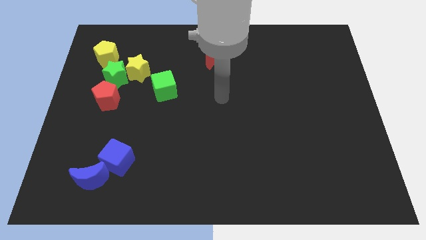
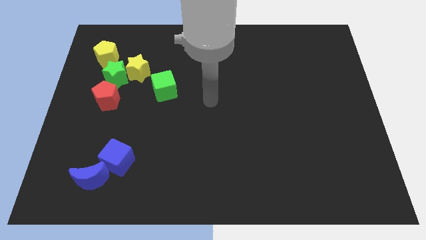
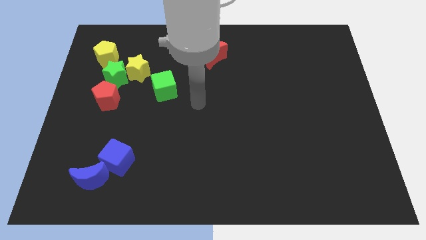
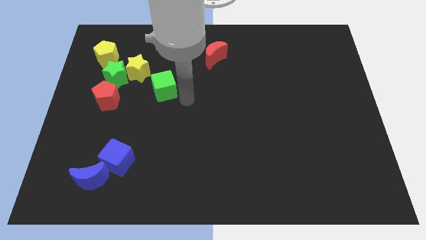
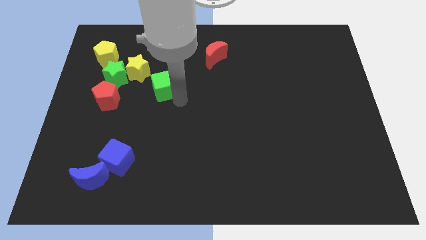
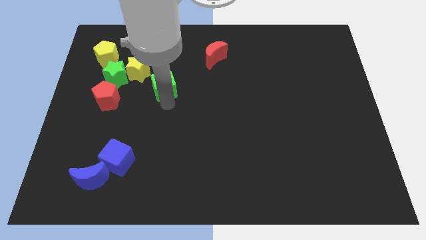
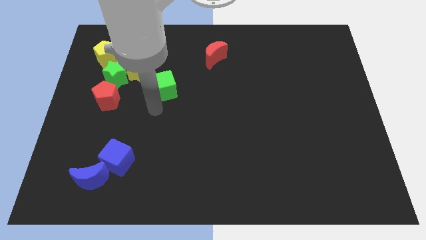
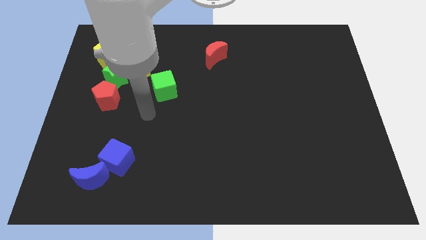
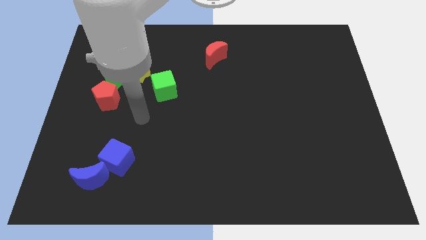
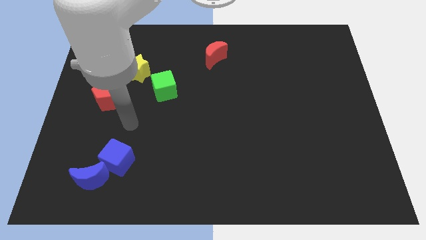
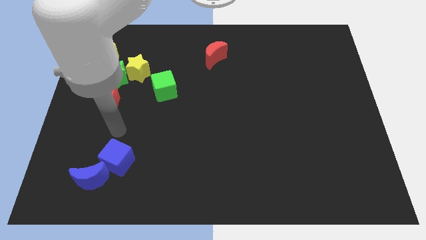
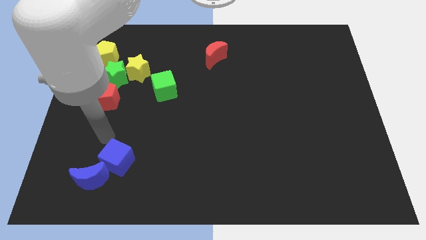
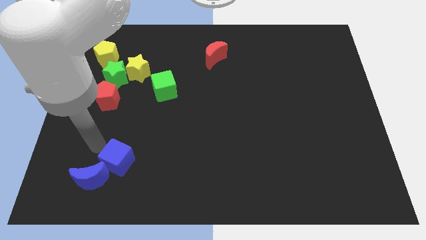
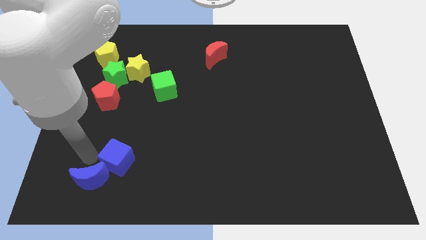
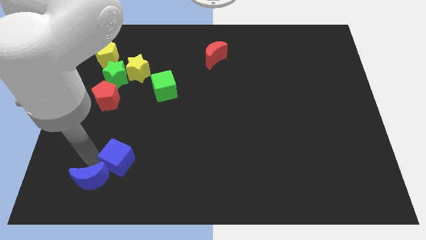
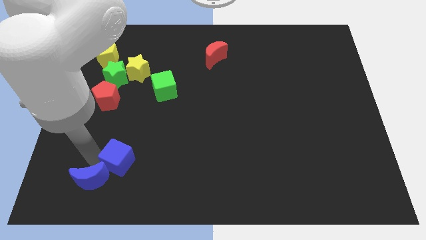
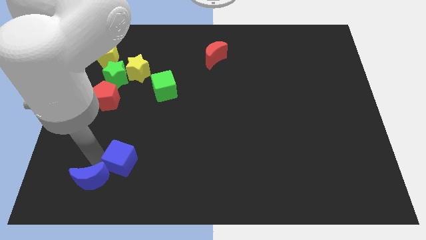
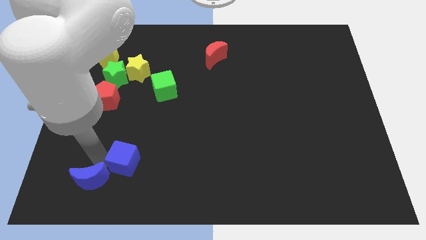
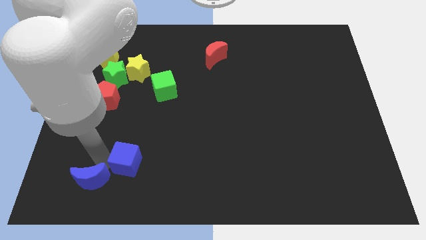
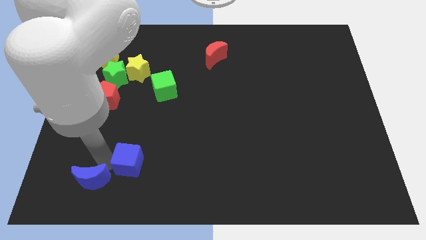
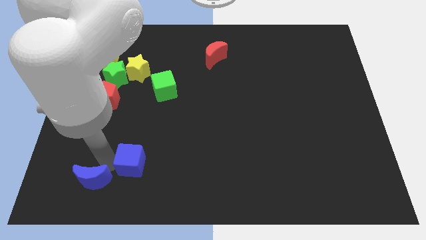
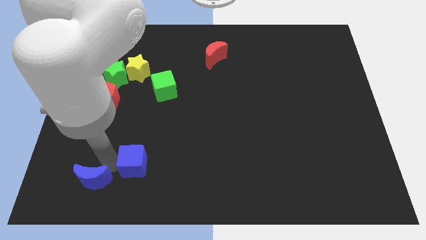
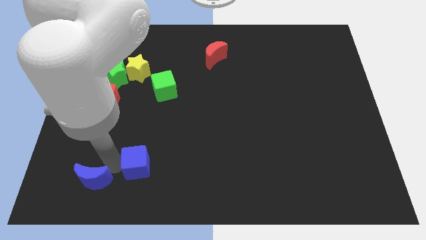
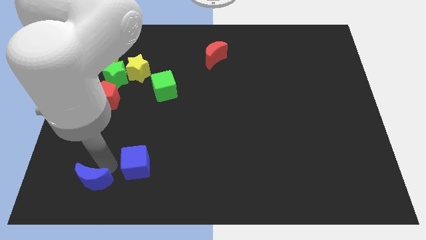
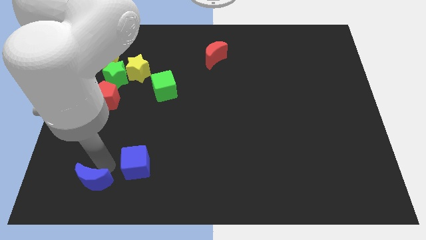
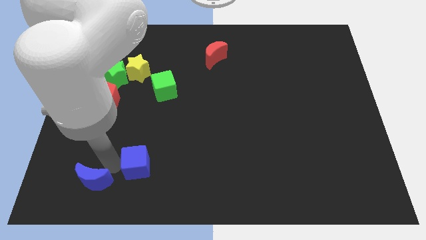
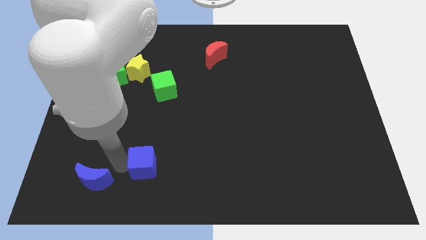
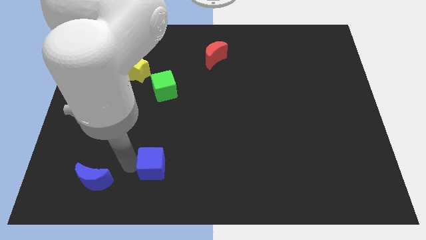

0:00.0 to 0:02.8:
move the blue cube a bit to the right

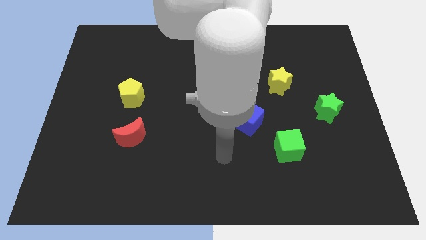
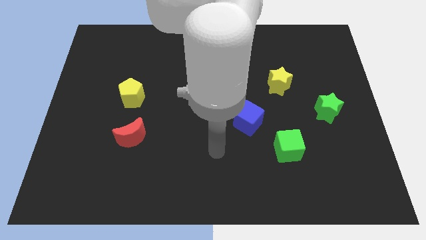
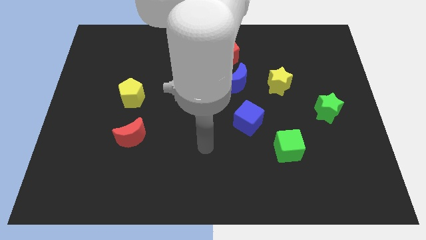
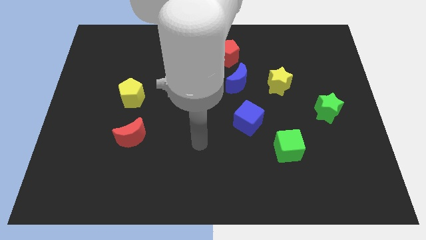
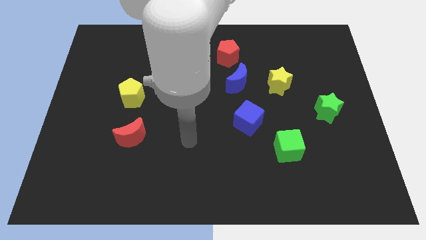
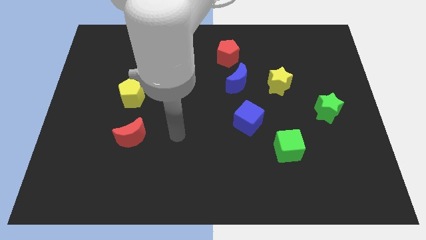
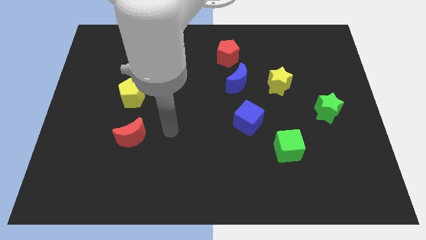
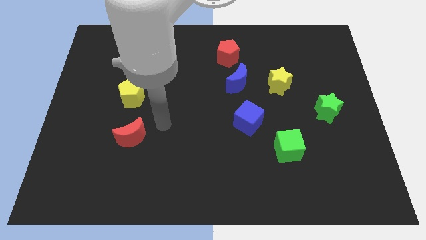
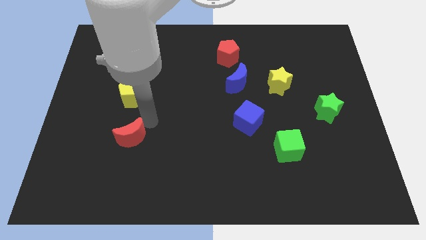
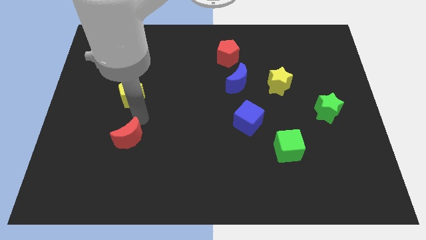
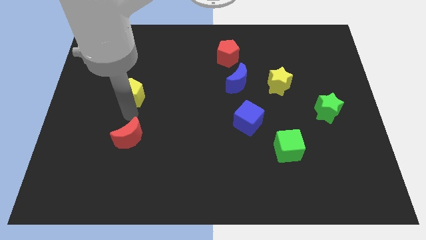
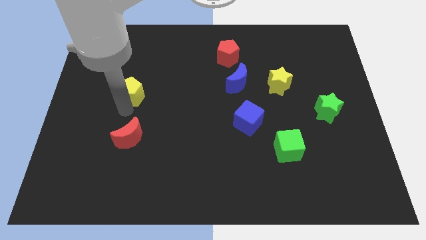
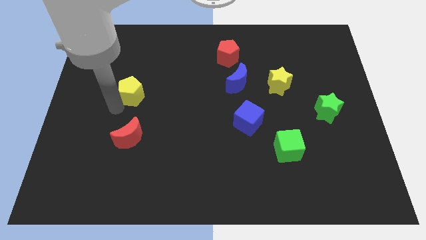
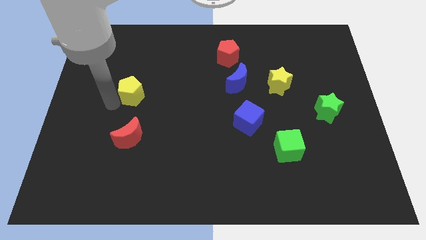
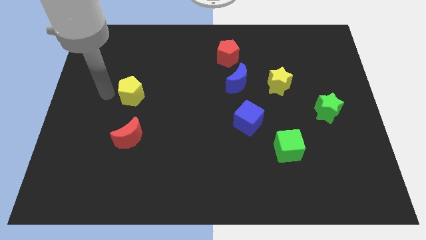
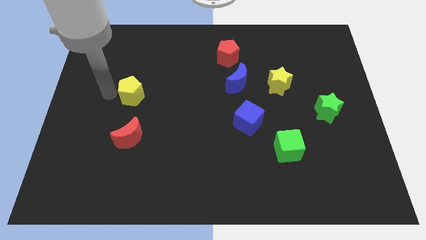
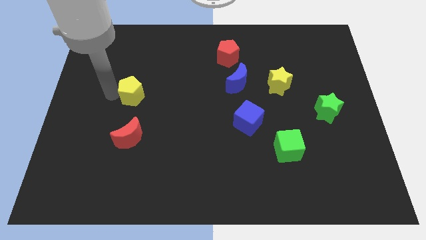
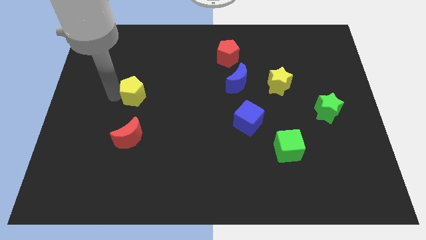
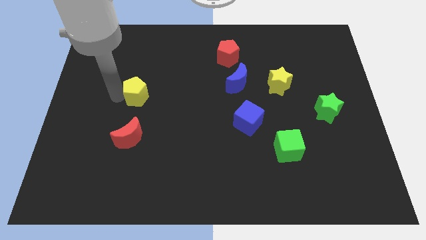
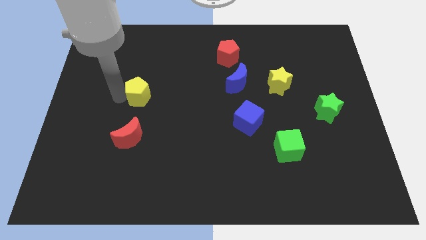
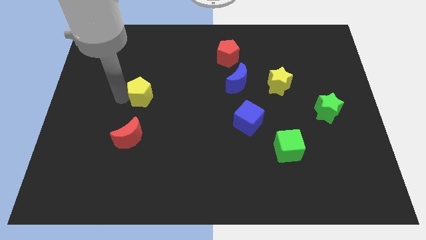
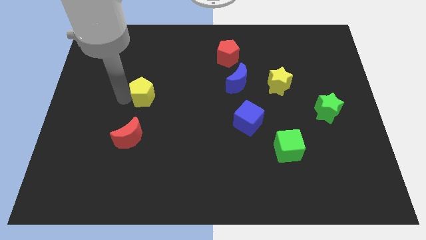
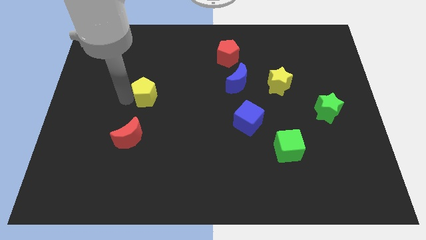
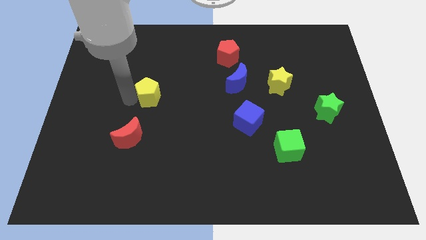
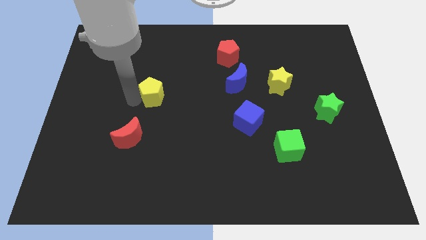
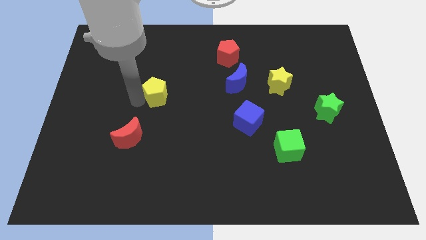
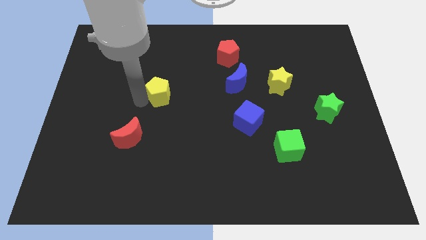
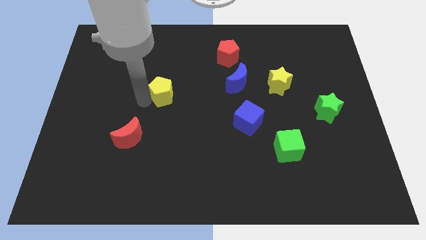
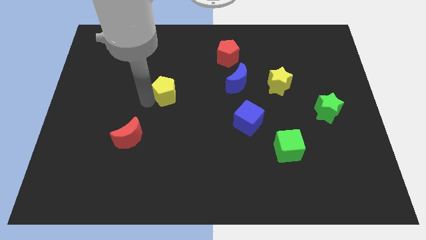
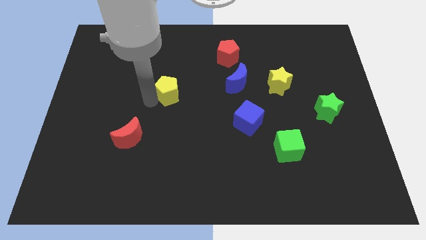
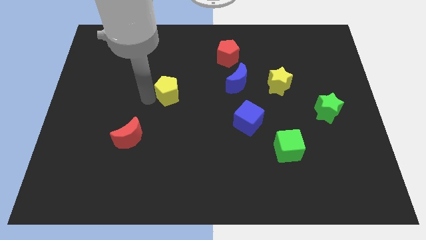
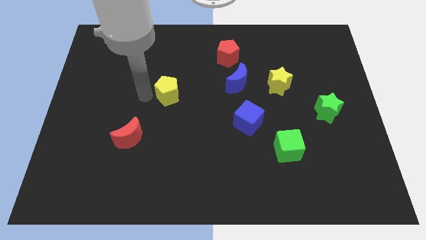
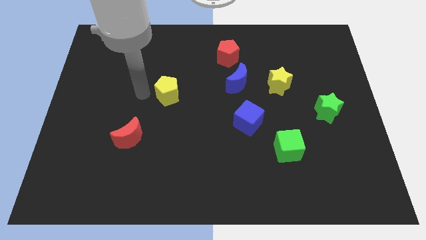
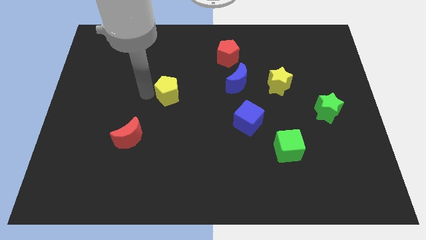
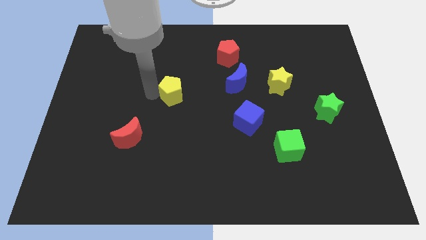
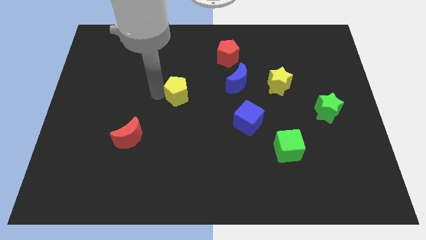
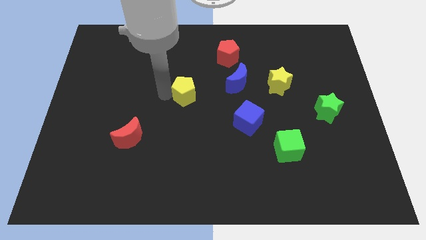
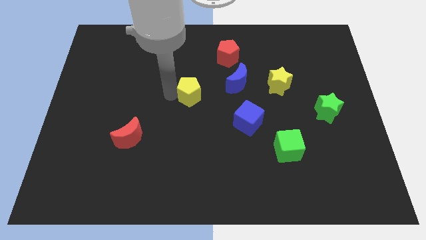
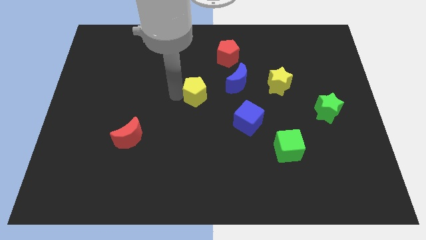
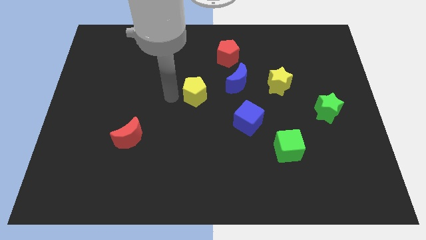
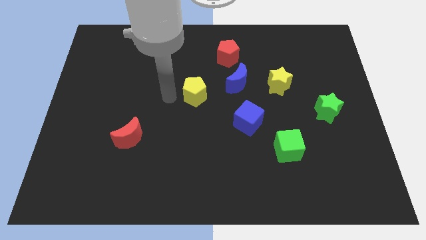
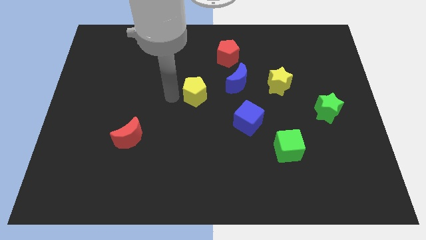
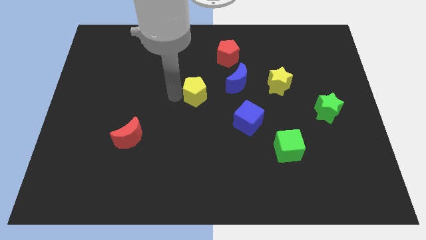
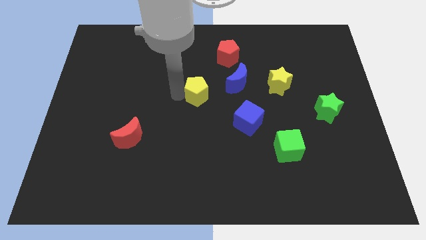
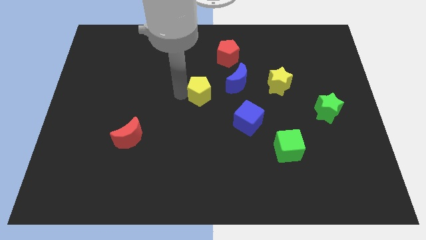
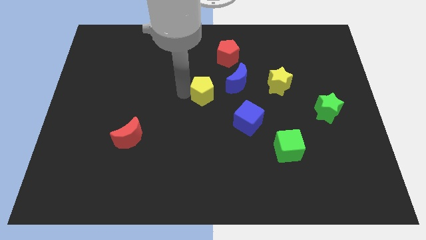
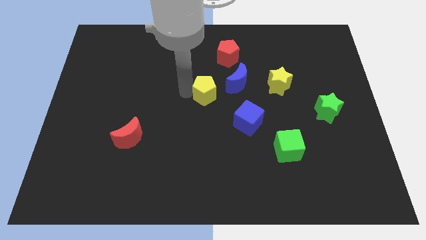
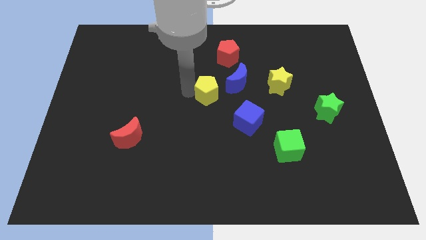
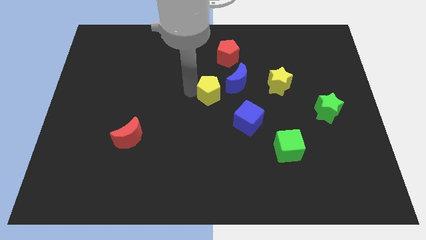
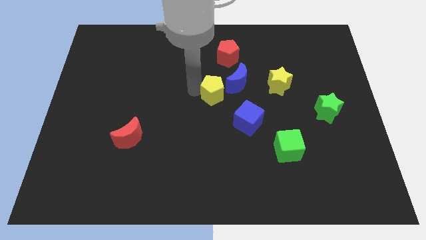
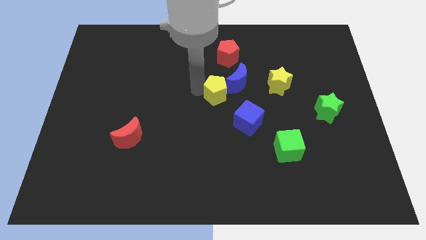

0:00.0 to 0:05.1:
move the yellow pentagon to the right

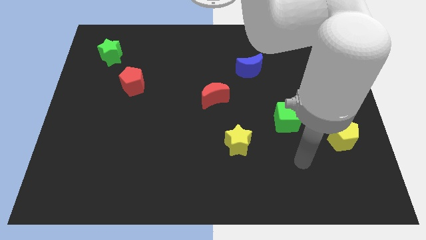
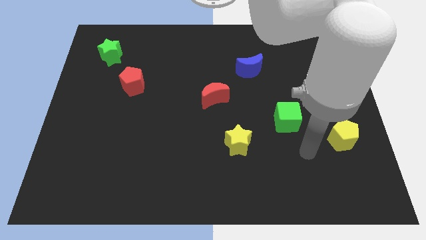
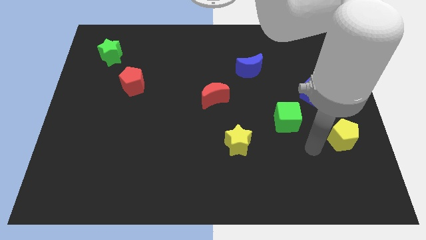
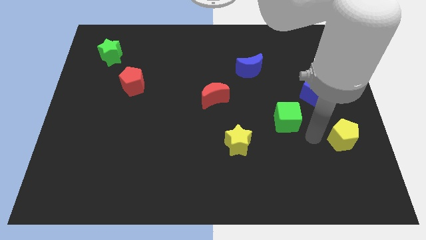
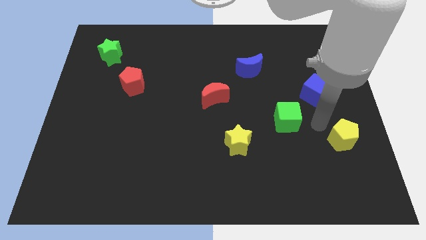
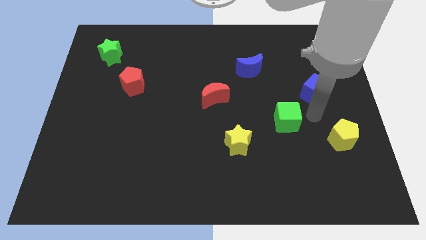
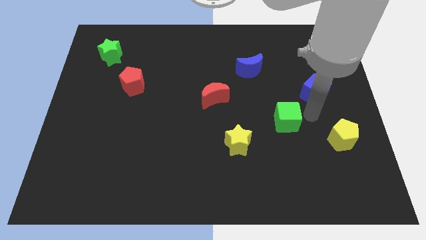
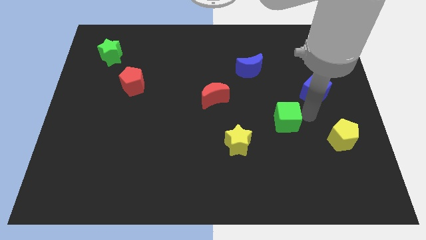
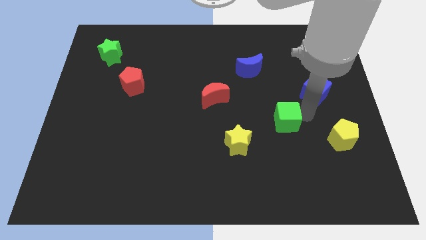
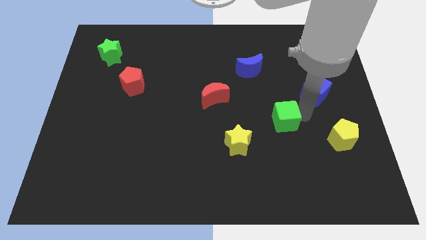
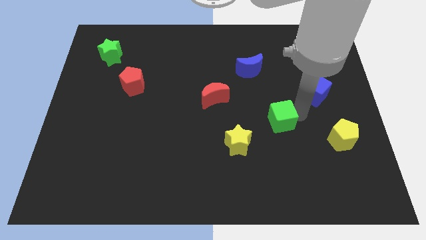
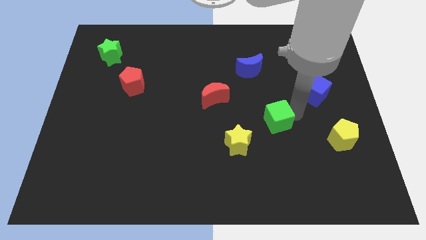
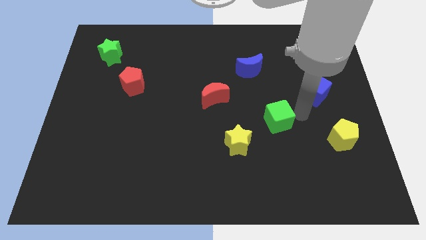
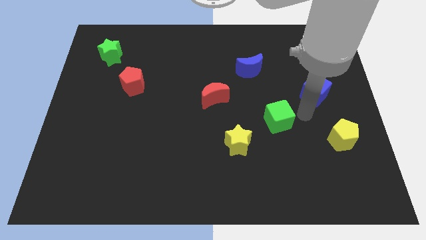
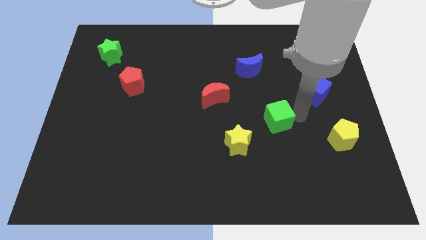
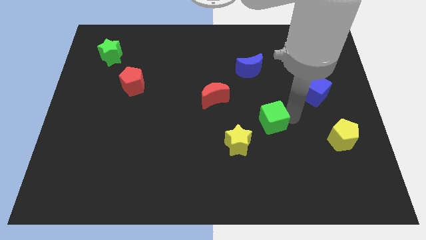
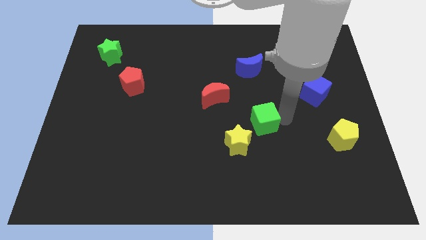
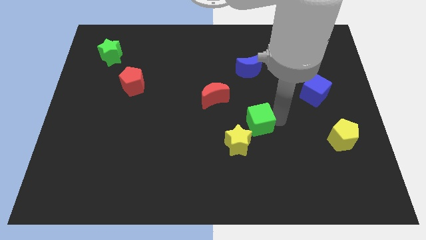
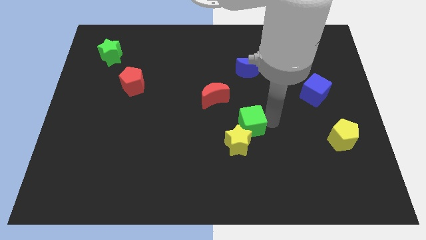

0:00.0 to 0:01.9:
move the green cube left somewhat
